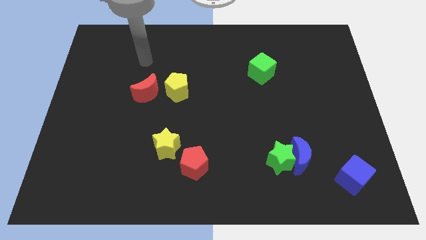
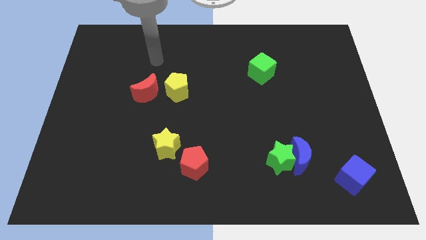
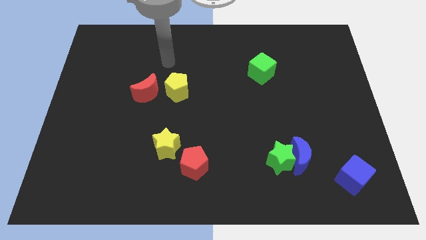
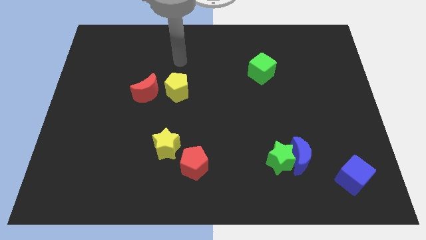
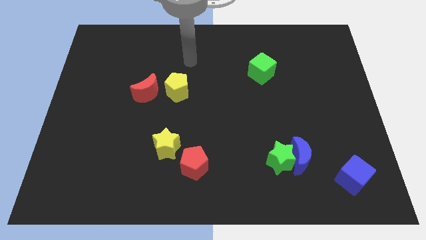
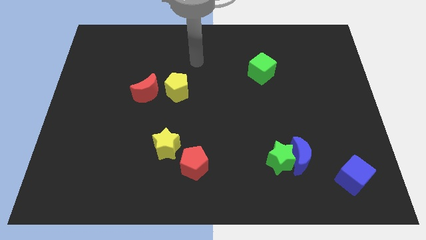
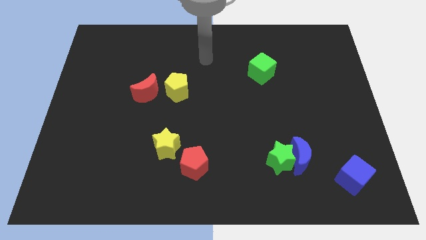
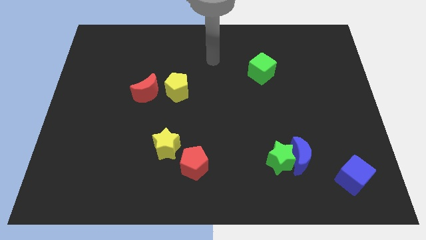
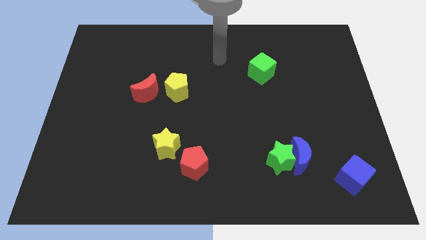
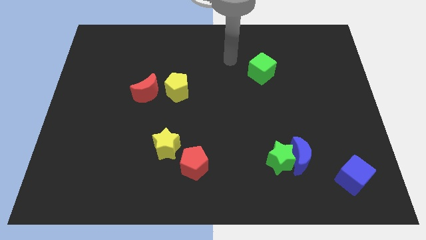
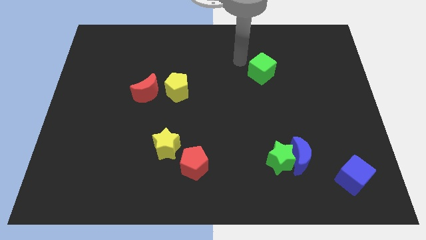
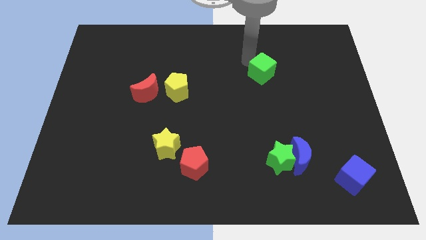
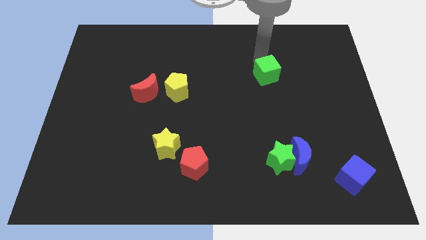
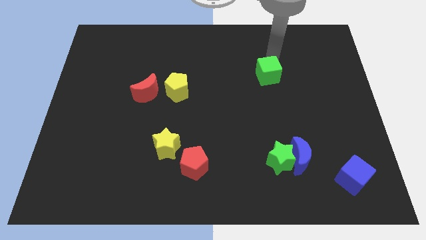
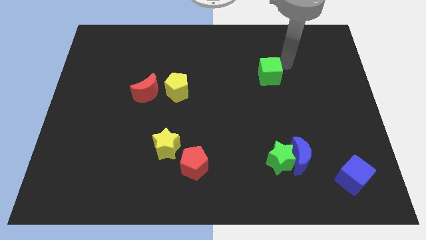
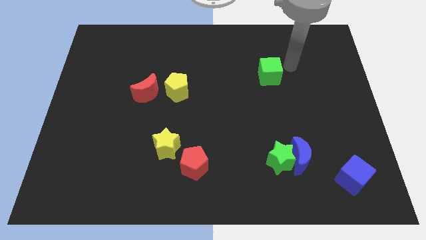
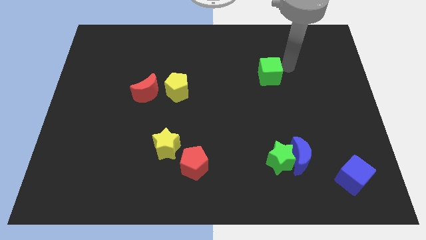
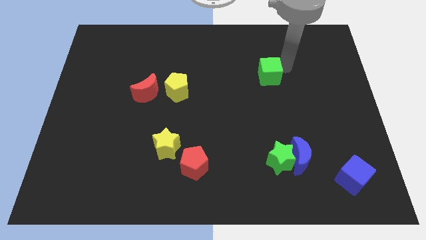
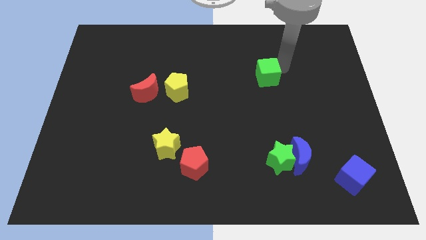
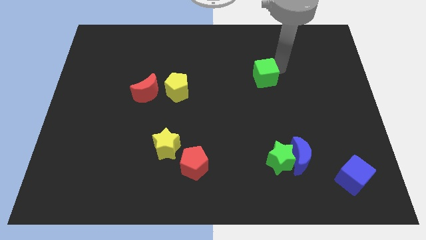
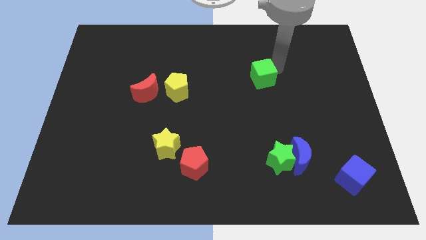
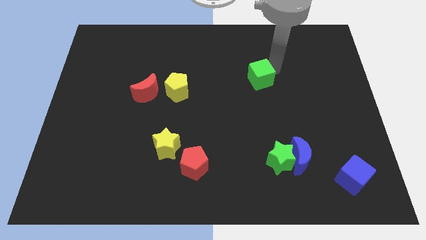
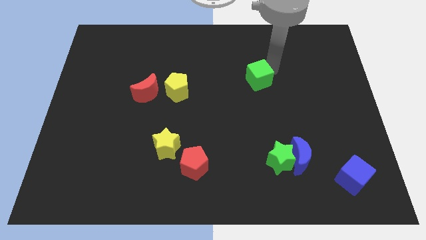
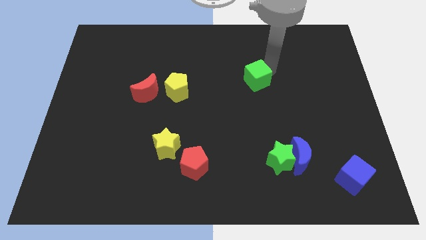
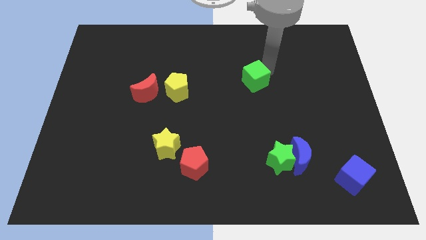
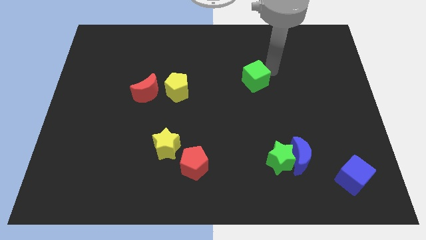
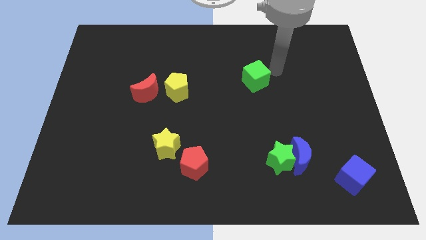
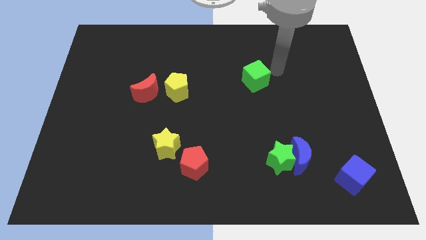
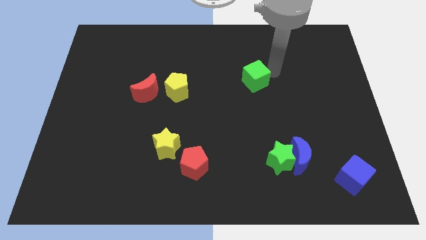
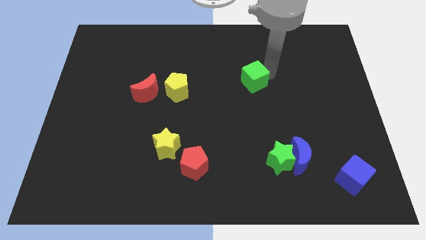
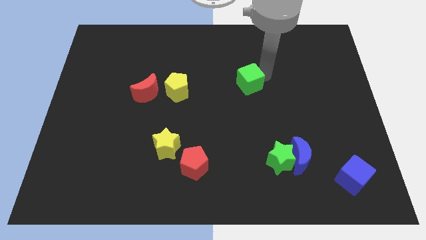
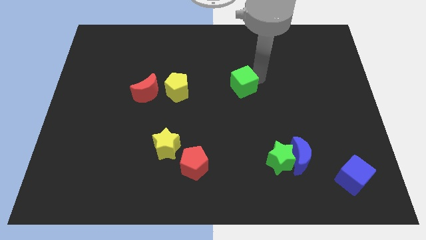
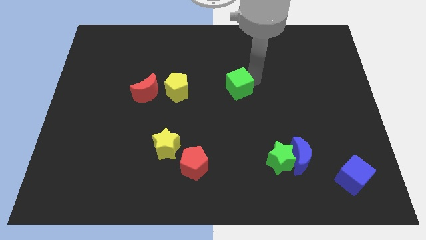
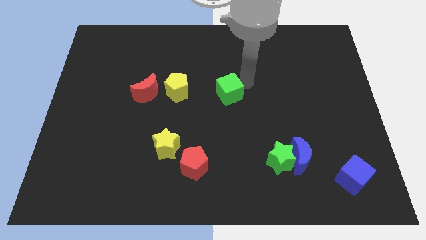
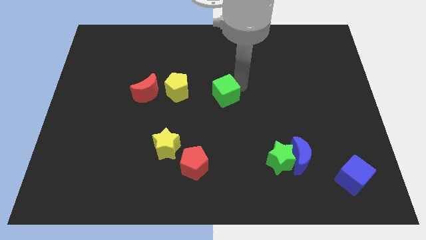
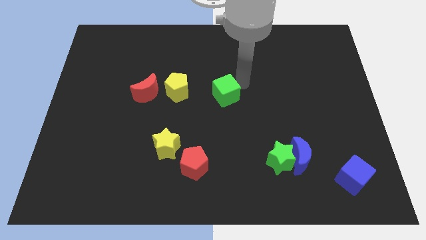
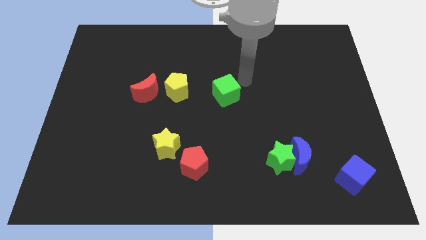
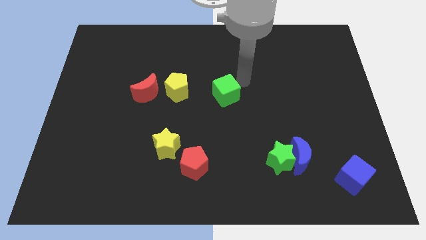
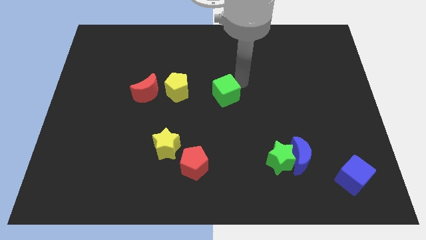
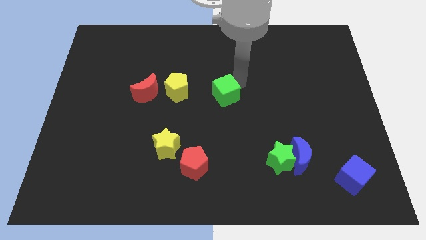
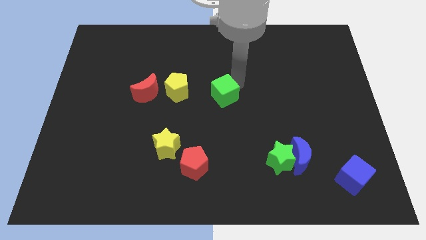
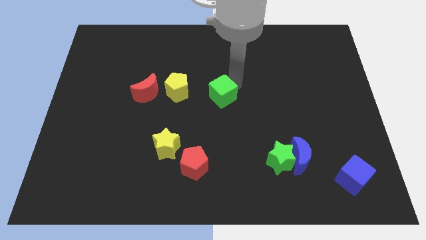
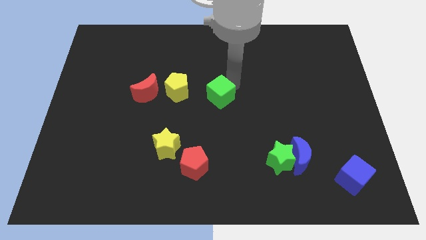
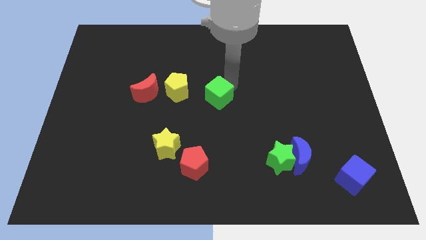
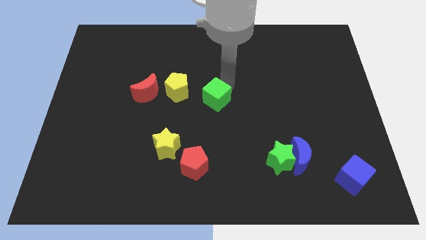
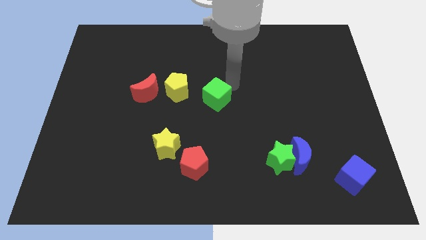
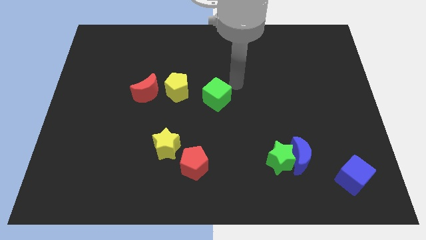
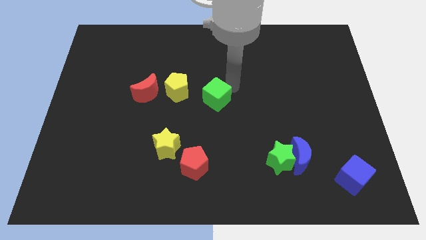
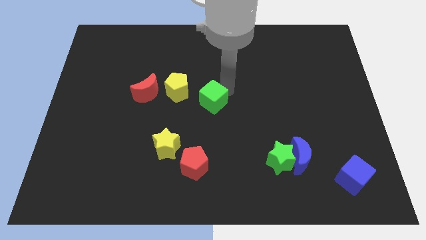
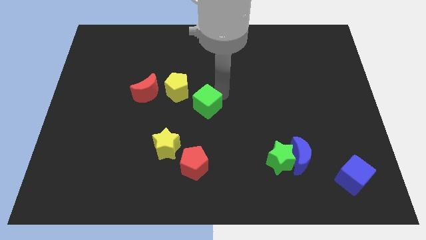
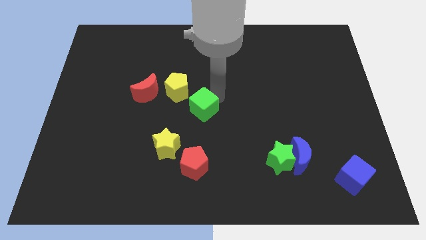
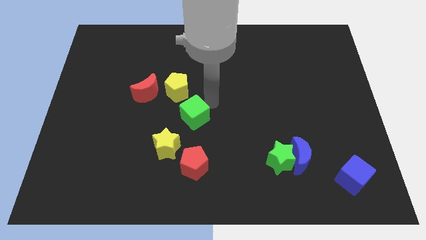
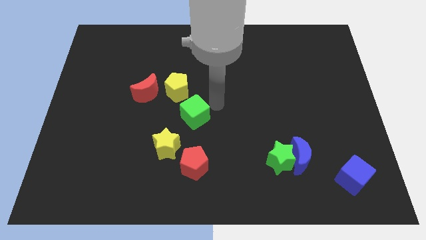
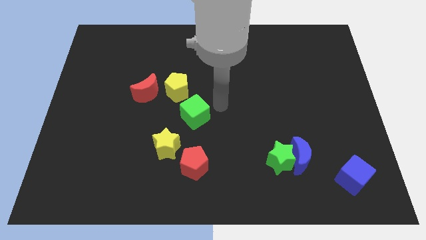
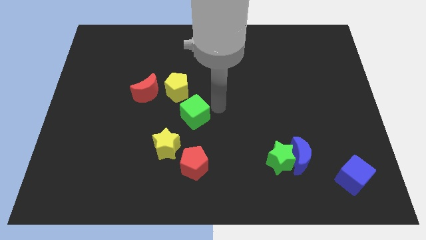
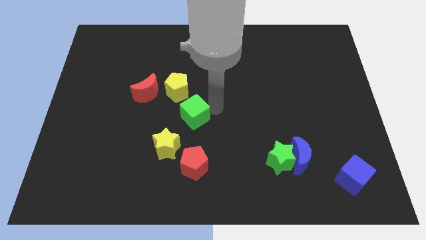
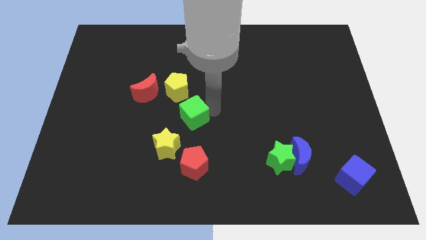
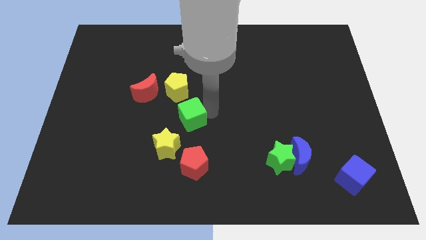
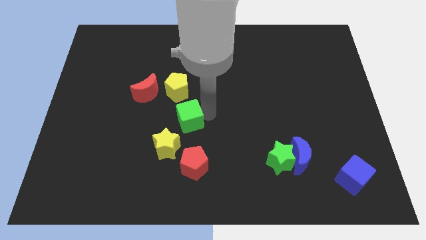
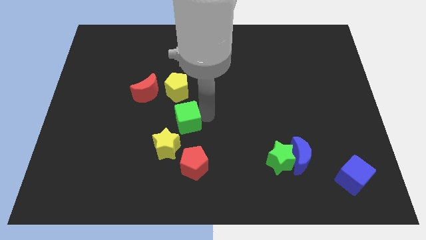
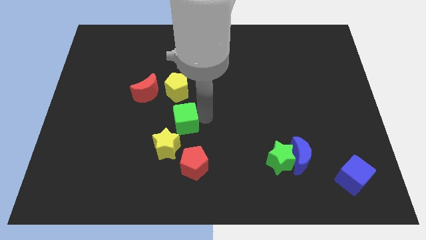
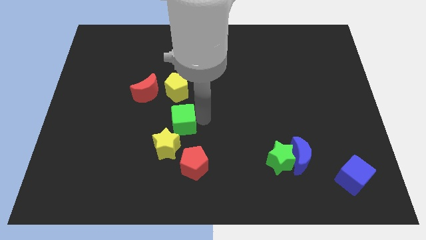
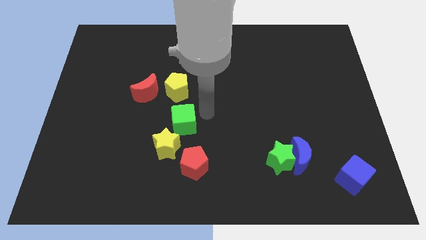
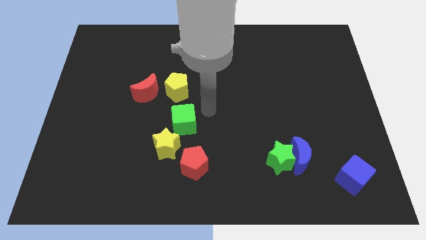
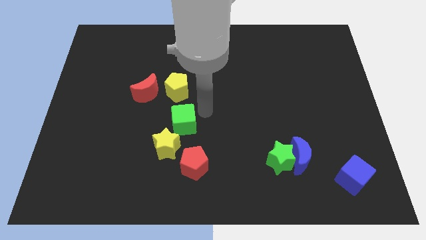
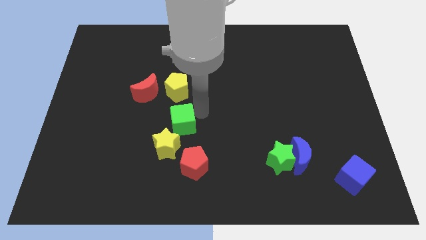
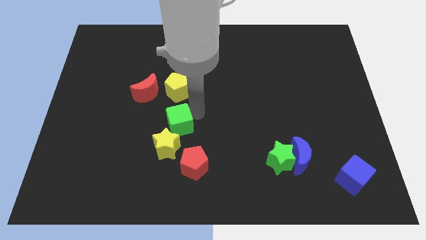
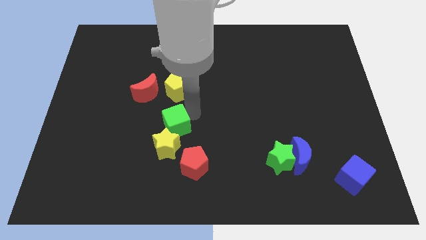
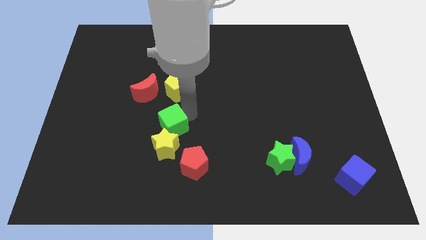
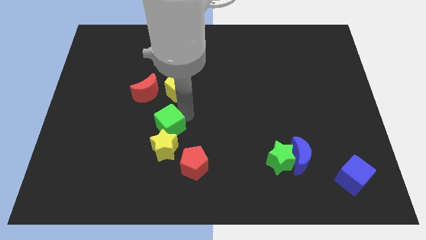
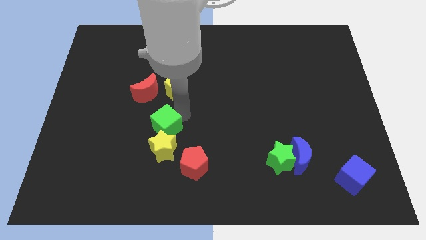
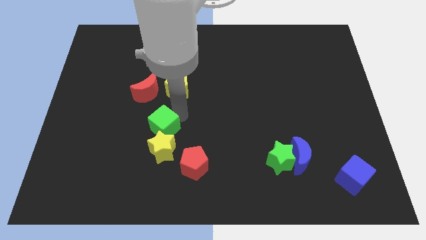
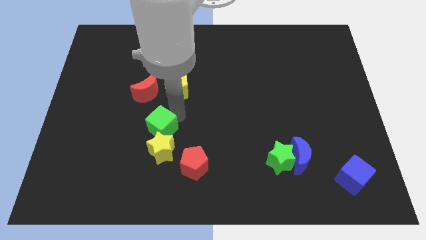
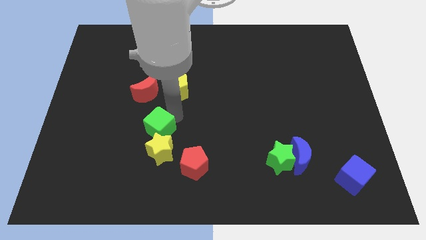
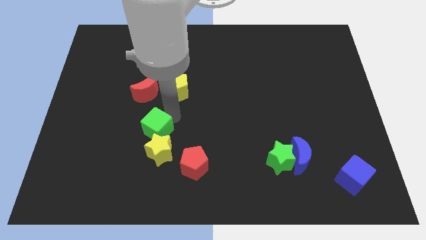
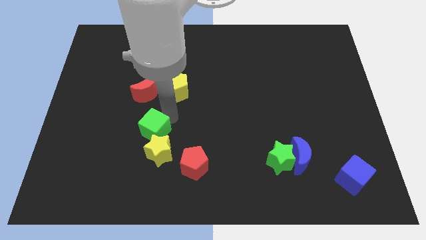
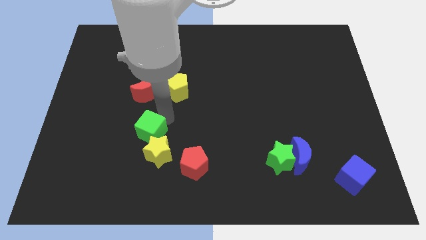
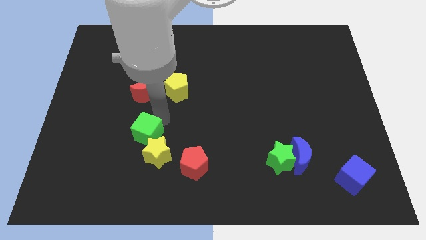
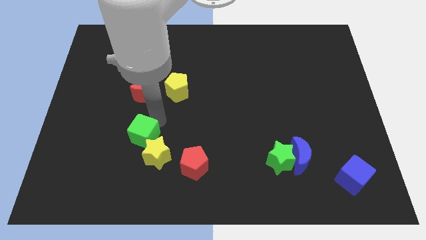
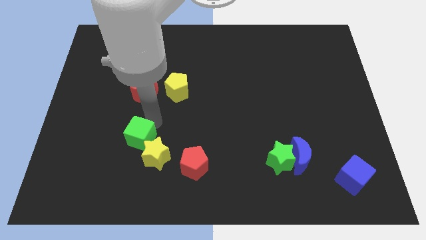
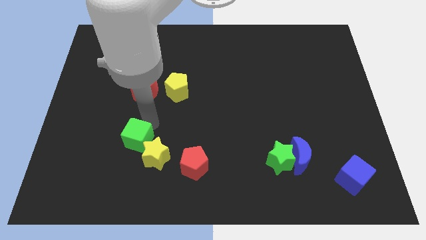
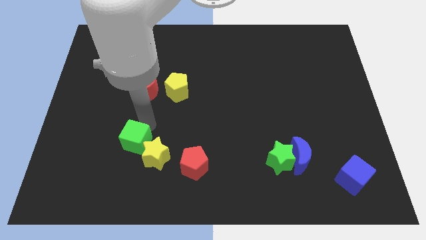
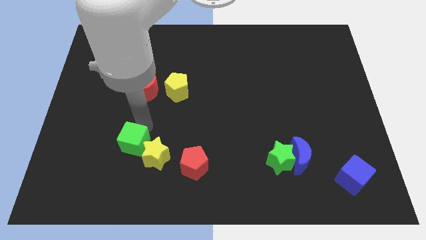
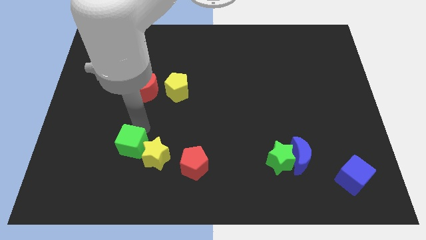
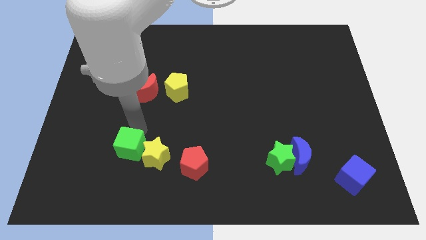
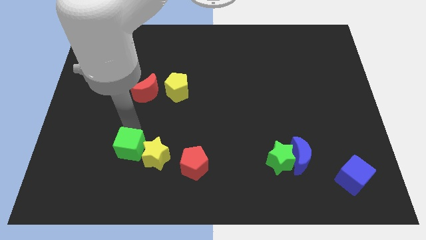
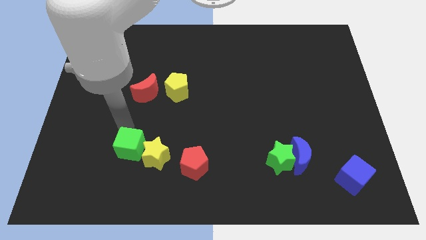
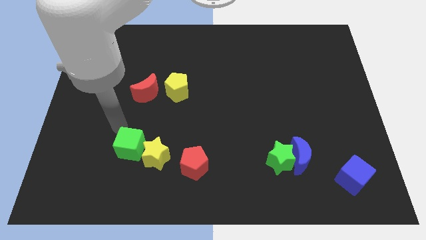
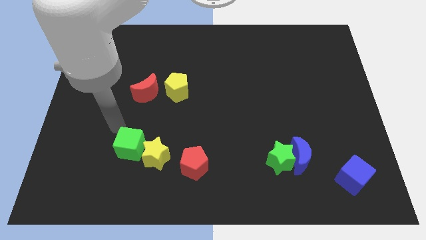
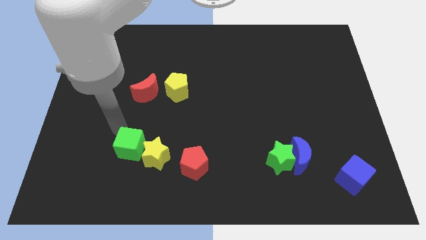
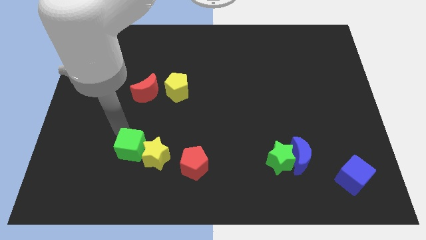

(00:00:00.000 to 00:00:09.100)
move the green cube left of the red pentagon
